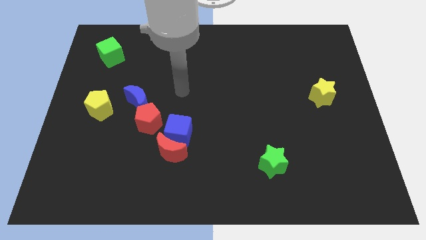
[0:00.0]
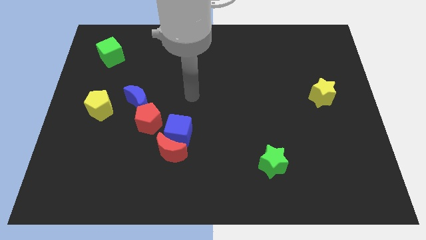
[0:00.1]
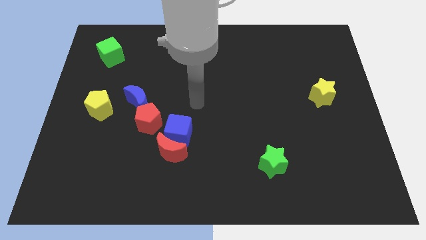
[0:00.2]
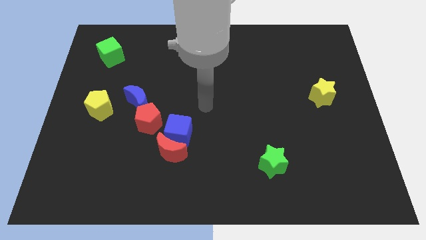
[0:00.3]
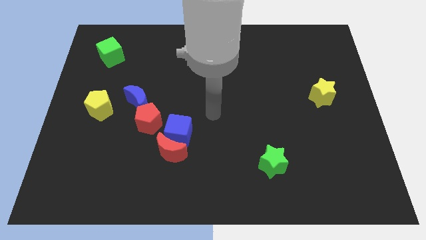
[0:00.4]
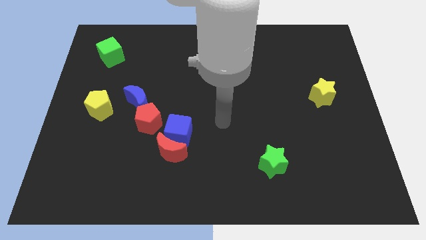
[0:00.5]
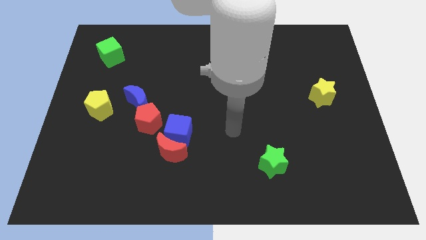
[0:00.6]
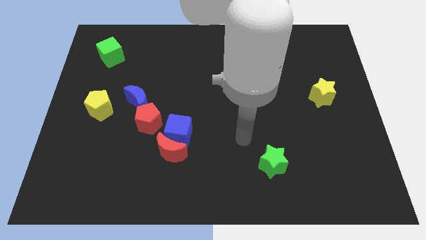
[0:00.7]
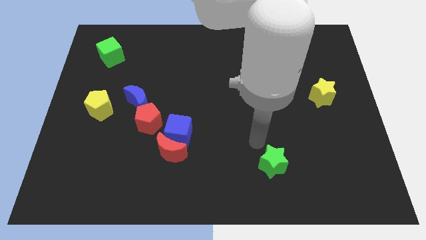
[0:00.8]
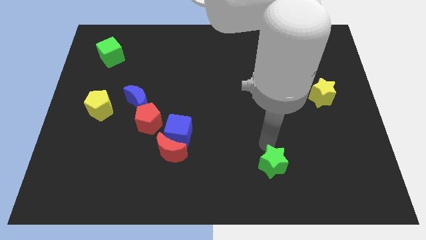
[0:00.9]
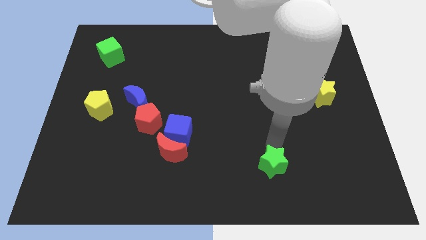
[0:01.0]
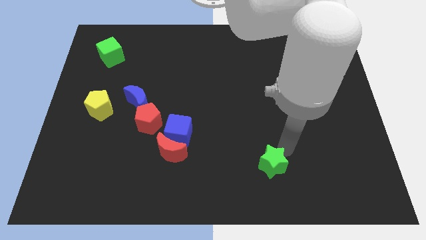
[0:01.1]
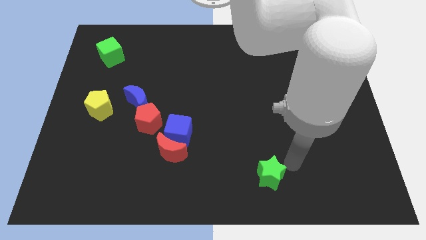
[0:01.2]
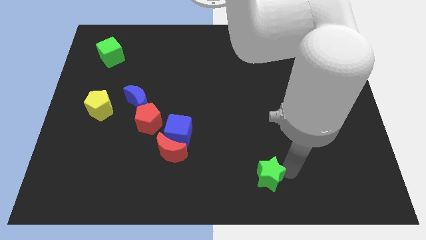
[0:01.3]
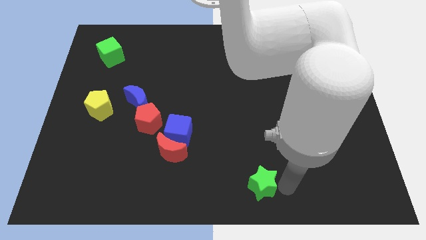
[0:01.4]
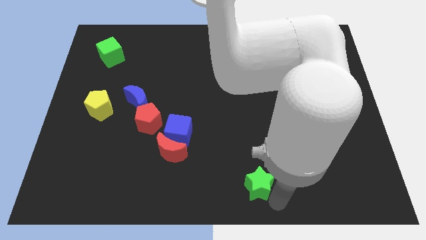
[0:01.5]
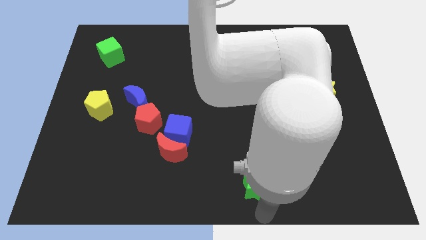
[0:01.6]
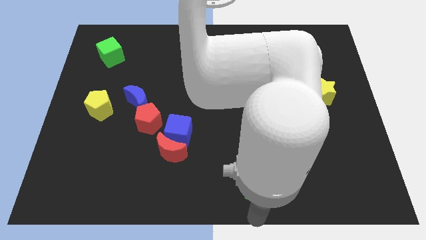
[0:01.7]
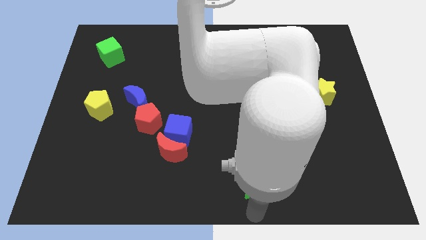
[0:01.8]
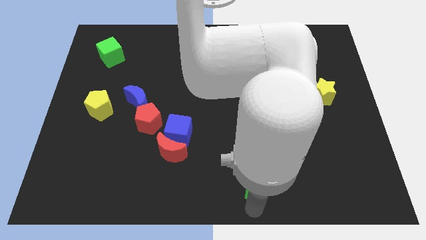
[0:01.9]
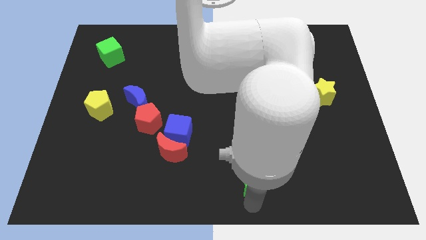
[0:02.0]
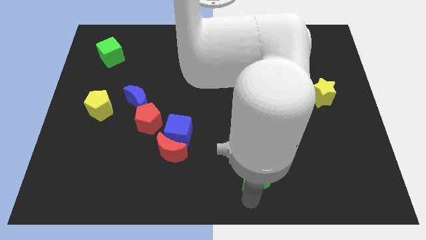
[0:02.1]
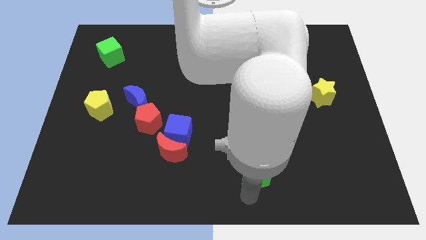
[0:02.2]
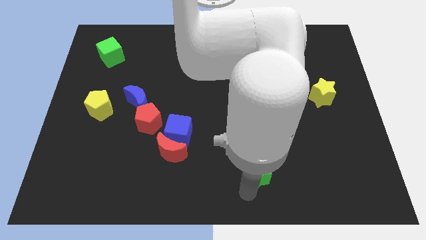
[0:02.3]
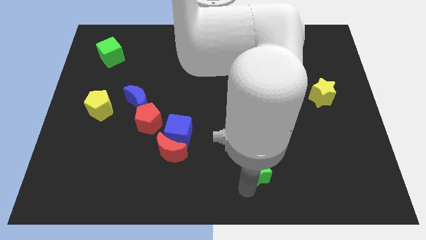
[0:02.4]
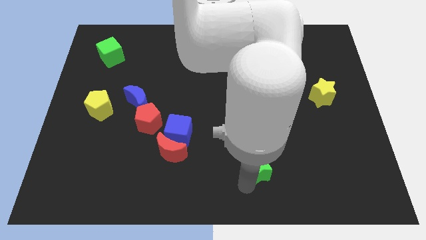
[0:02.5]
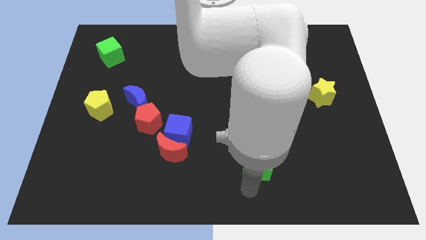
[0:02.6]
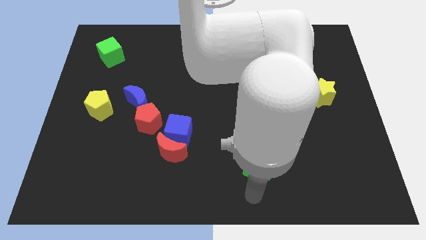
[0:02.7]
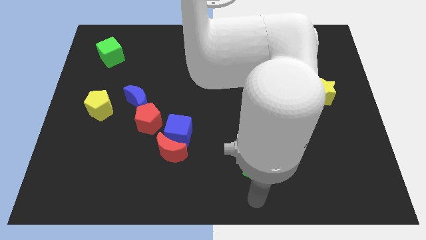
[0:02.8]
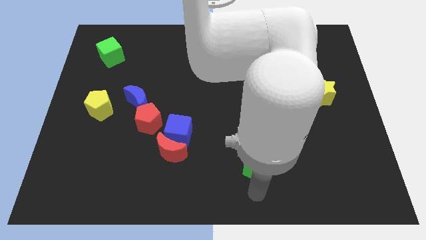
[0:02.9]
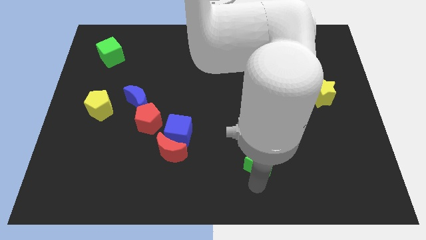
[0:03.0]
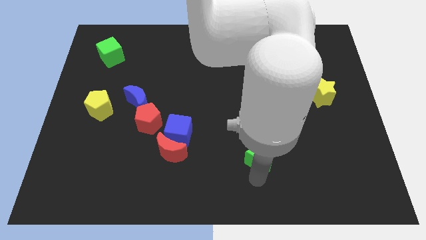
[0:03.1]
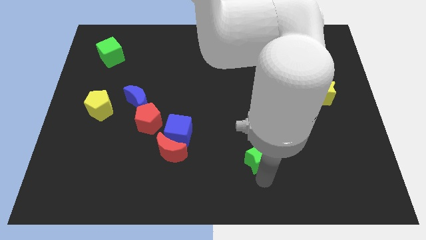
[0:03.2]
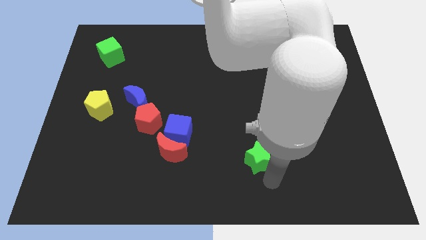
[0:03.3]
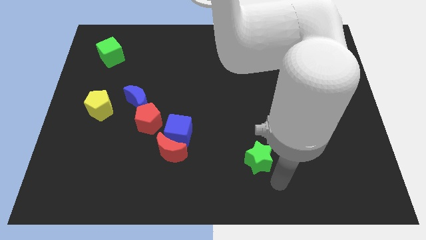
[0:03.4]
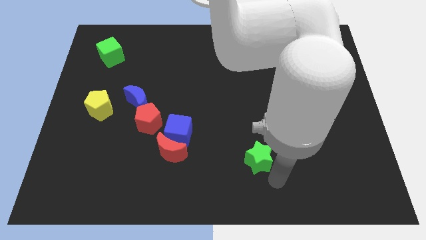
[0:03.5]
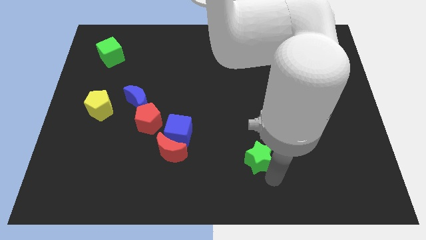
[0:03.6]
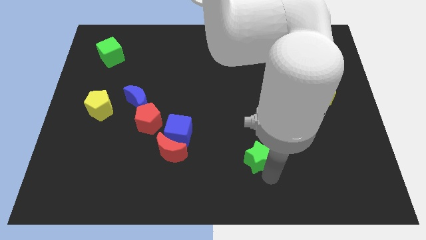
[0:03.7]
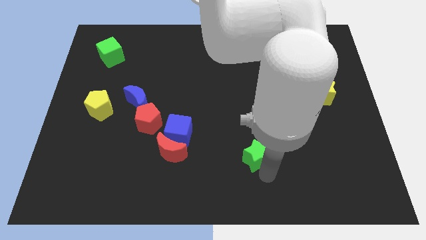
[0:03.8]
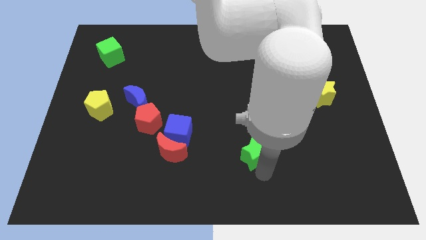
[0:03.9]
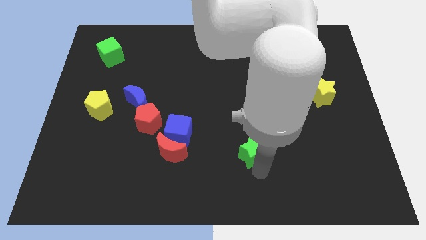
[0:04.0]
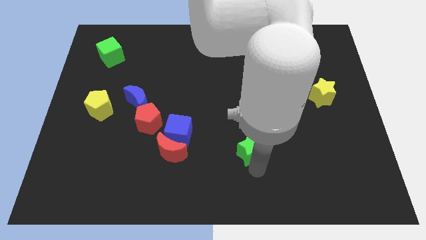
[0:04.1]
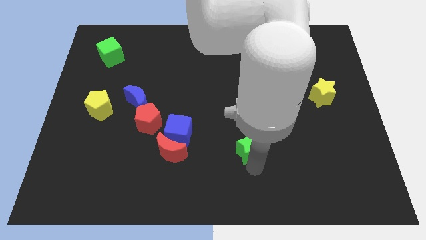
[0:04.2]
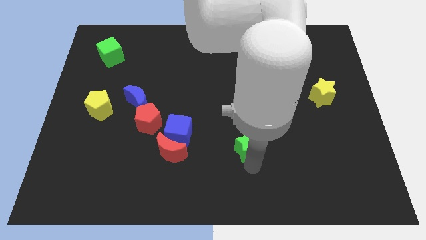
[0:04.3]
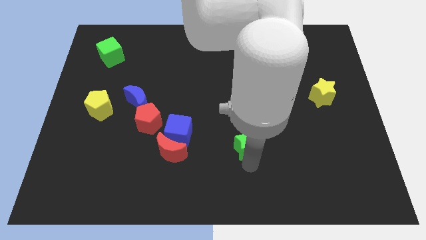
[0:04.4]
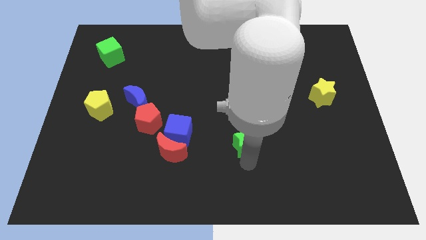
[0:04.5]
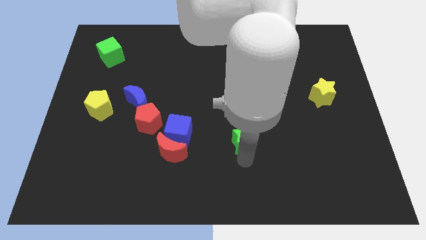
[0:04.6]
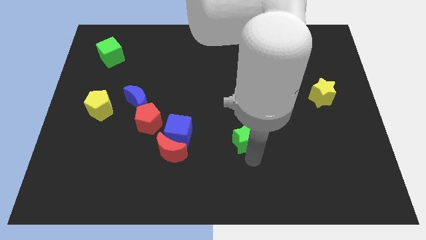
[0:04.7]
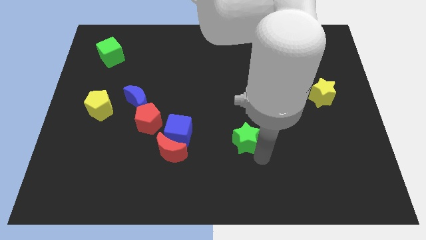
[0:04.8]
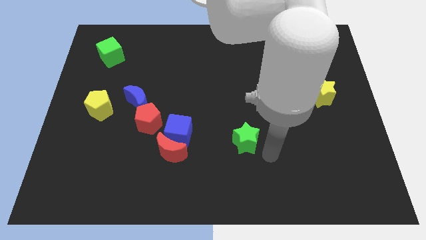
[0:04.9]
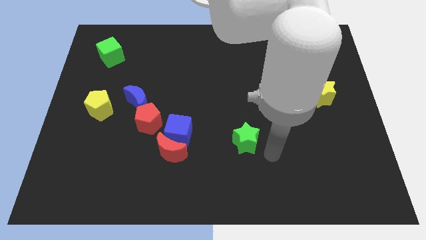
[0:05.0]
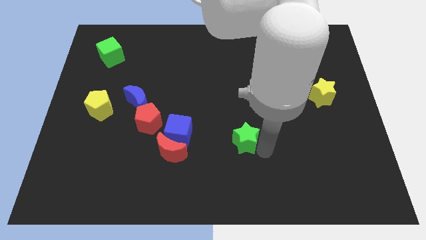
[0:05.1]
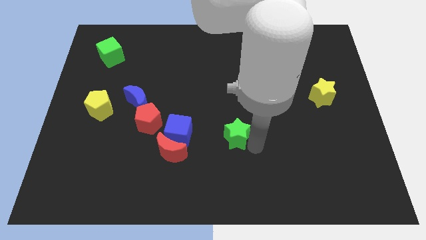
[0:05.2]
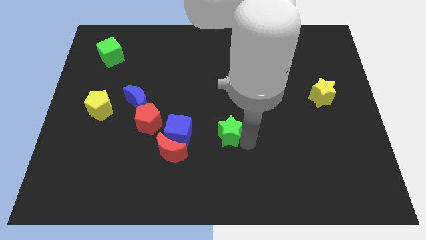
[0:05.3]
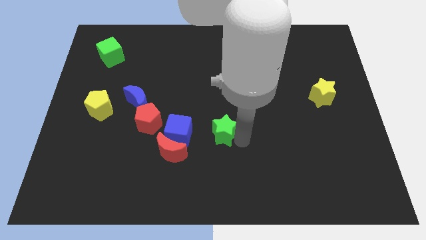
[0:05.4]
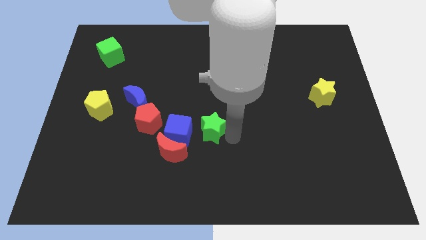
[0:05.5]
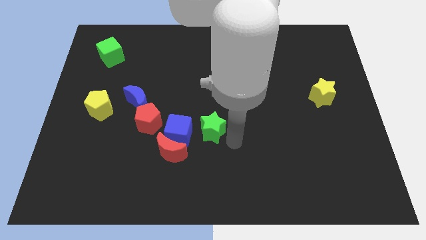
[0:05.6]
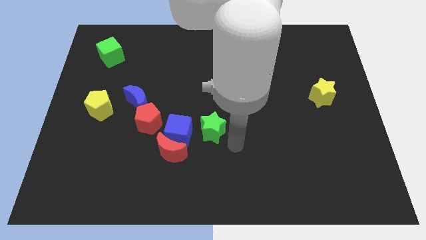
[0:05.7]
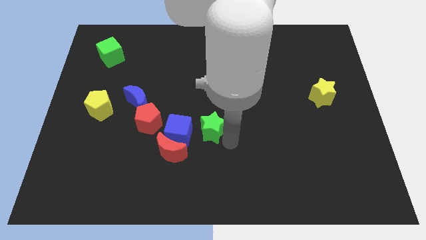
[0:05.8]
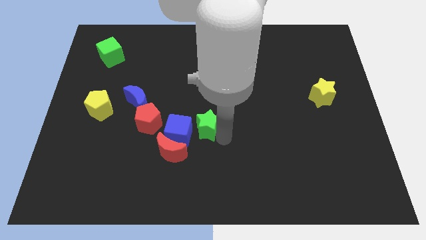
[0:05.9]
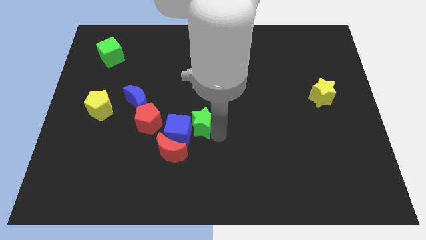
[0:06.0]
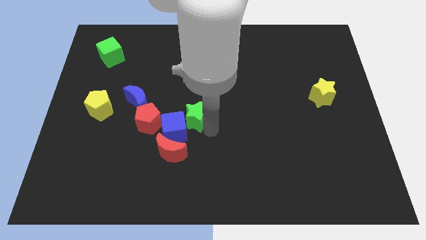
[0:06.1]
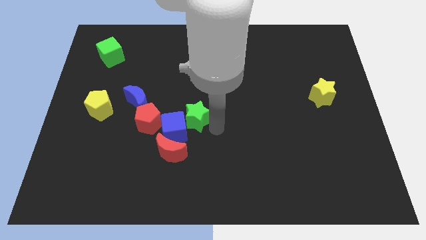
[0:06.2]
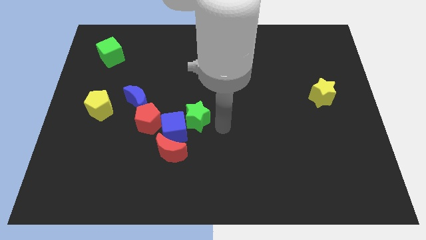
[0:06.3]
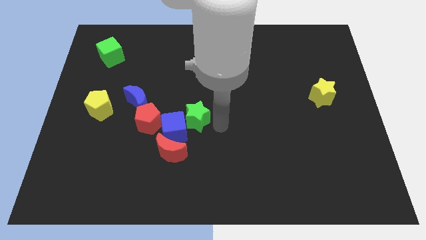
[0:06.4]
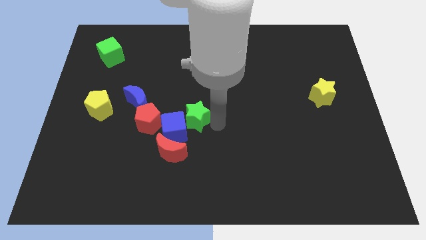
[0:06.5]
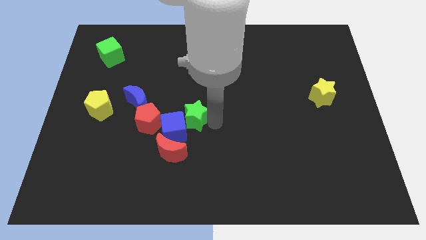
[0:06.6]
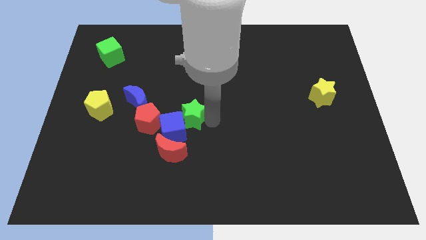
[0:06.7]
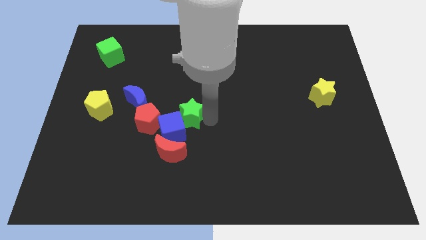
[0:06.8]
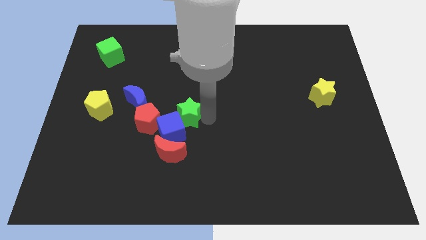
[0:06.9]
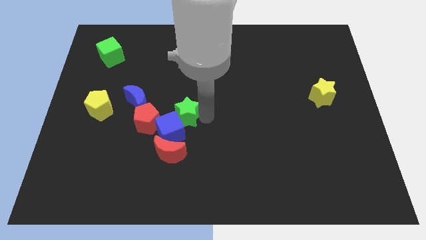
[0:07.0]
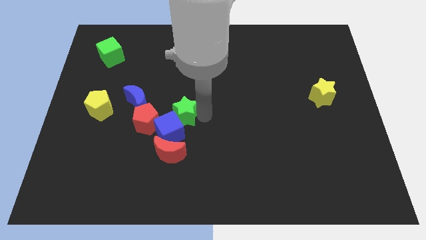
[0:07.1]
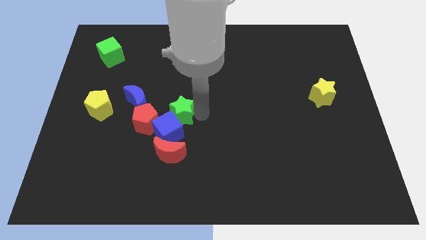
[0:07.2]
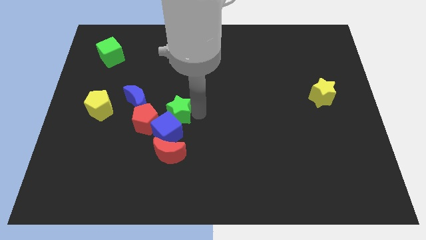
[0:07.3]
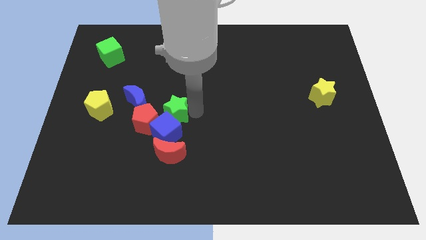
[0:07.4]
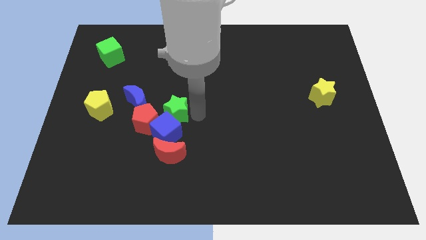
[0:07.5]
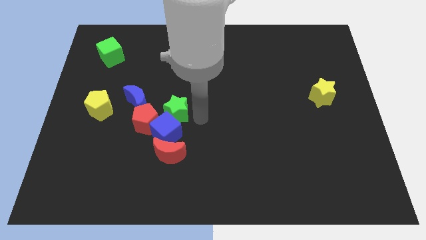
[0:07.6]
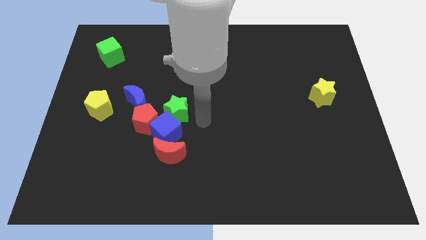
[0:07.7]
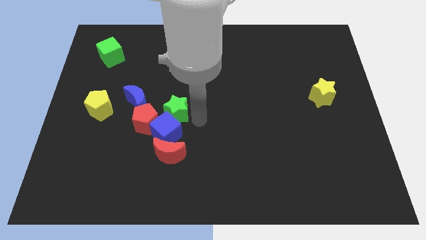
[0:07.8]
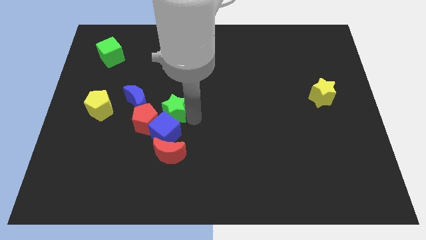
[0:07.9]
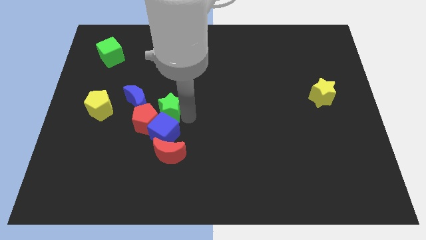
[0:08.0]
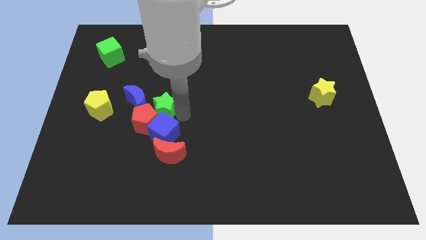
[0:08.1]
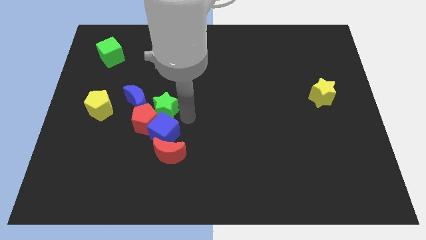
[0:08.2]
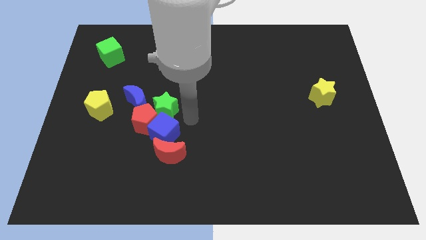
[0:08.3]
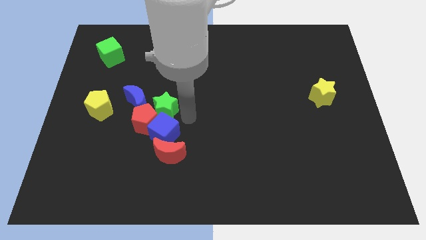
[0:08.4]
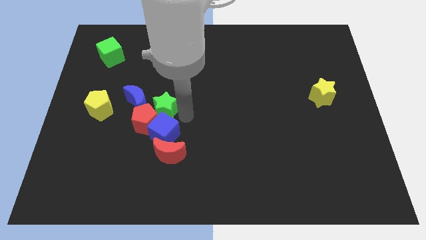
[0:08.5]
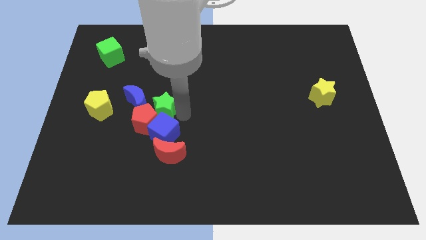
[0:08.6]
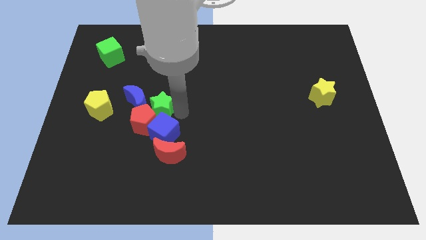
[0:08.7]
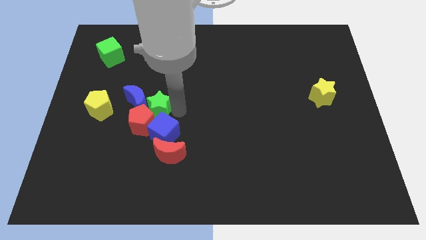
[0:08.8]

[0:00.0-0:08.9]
put the green star to the blue moon
